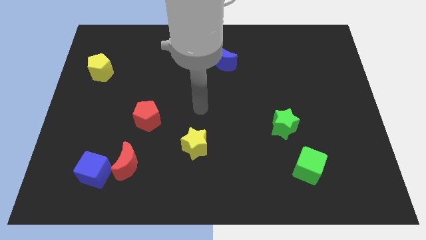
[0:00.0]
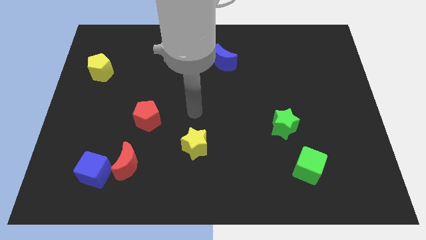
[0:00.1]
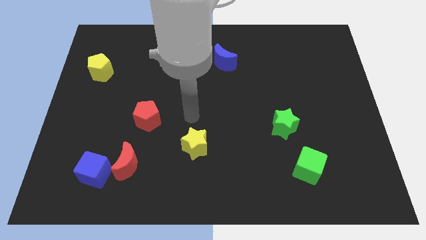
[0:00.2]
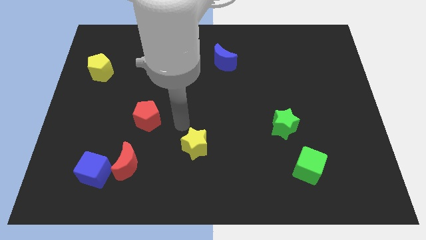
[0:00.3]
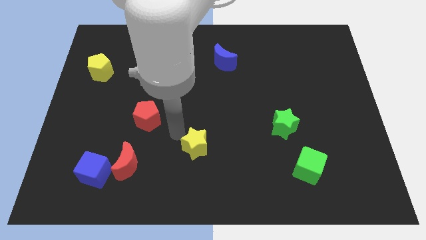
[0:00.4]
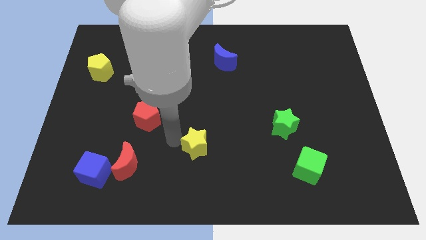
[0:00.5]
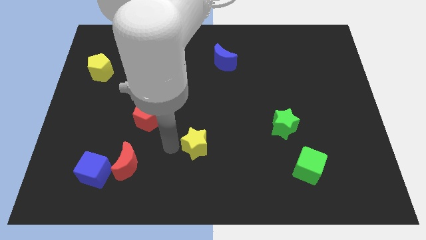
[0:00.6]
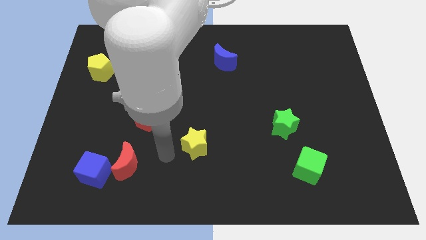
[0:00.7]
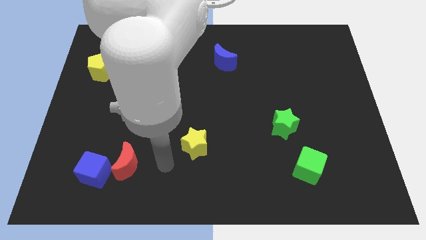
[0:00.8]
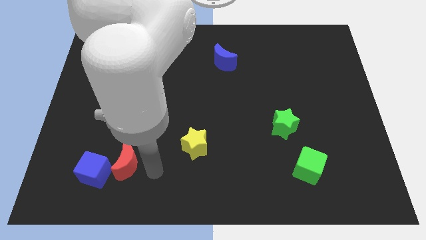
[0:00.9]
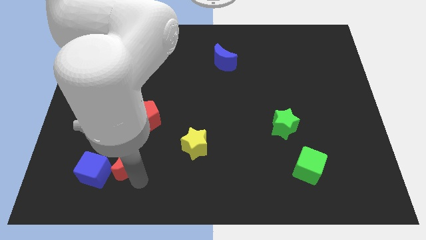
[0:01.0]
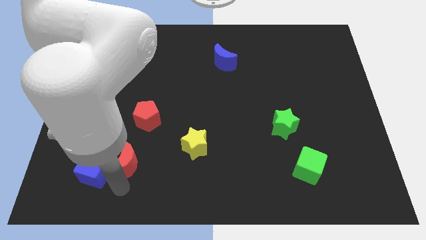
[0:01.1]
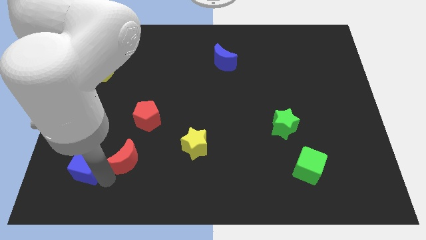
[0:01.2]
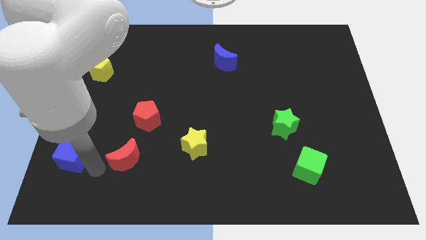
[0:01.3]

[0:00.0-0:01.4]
separate the red moon from the blue cube

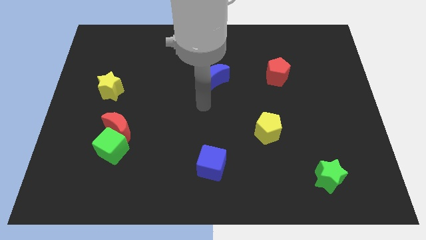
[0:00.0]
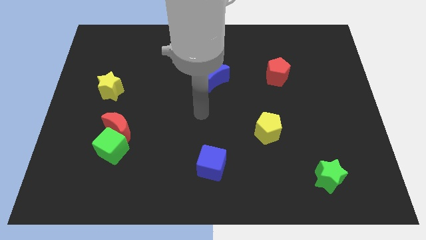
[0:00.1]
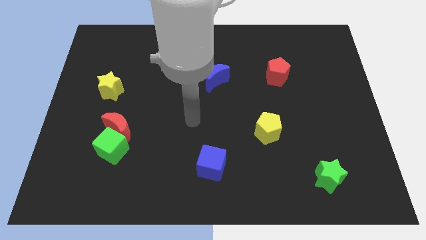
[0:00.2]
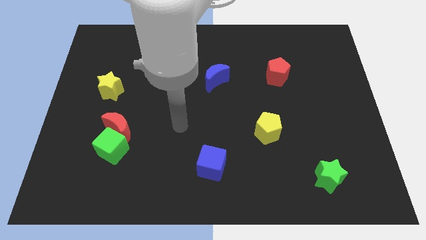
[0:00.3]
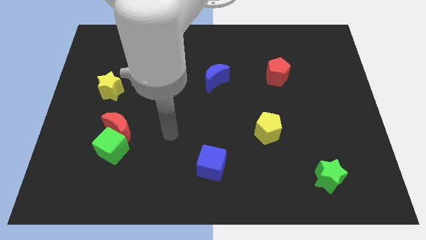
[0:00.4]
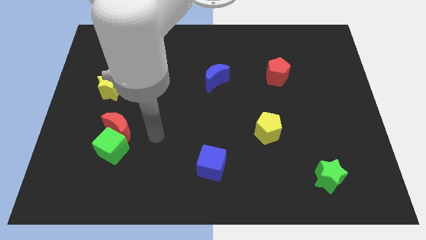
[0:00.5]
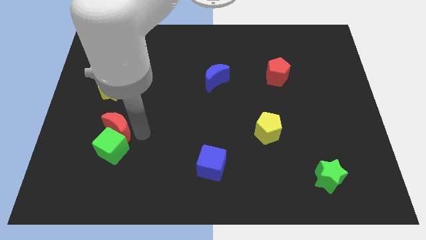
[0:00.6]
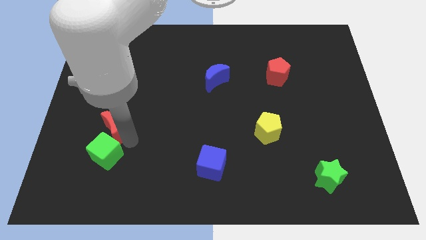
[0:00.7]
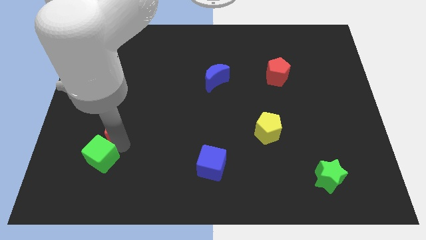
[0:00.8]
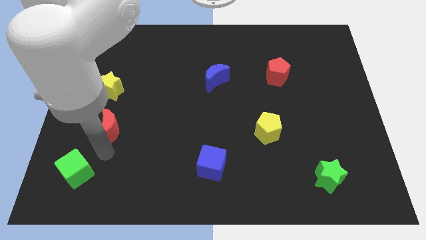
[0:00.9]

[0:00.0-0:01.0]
separate the red moon from the green cube

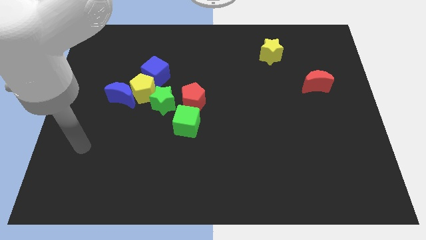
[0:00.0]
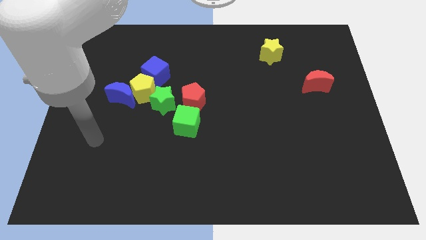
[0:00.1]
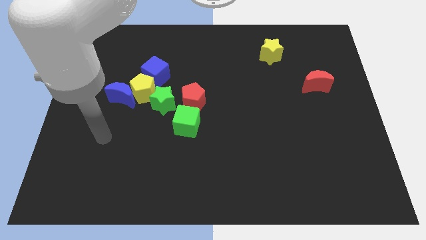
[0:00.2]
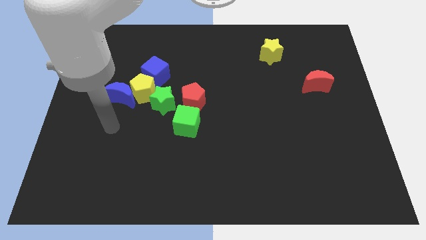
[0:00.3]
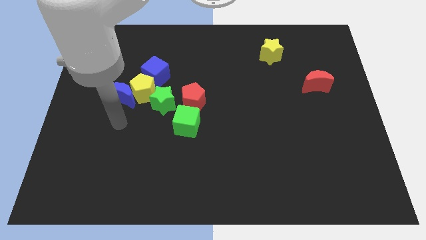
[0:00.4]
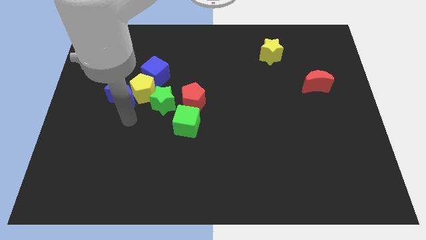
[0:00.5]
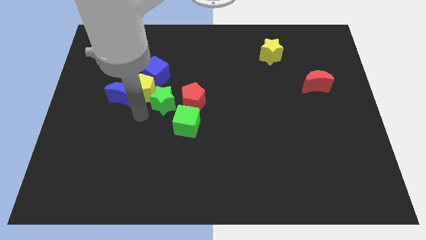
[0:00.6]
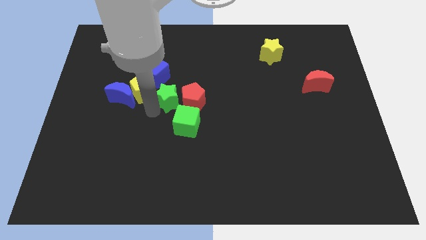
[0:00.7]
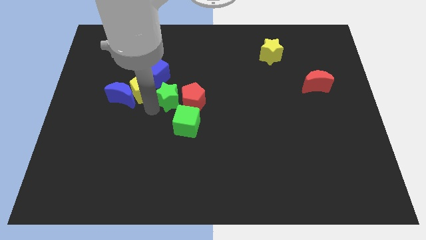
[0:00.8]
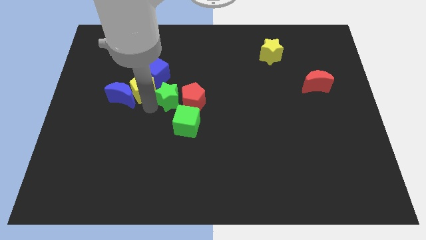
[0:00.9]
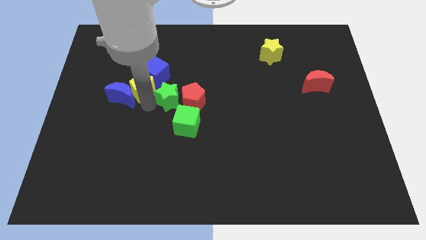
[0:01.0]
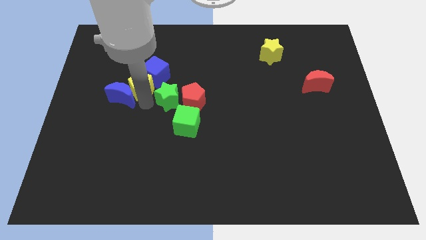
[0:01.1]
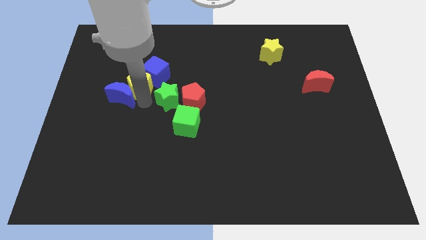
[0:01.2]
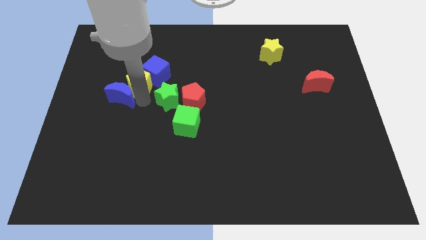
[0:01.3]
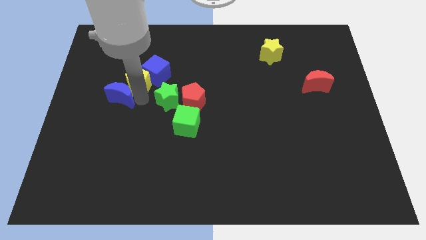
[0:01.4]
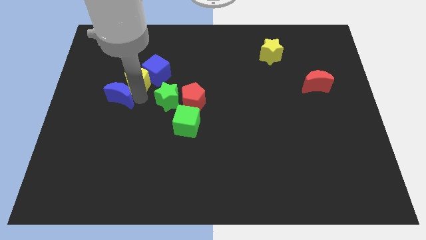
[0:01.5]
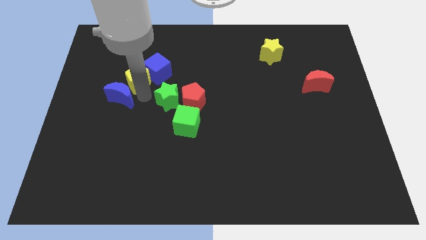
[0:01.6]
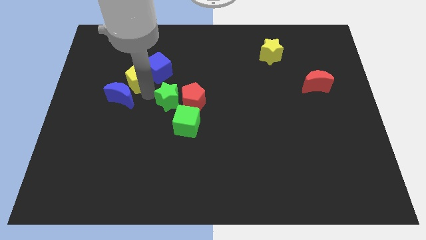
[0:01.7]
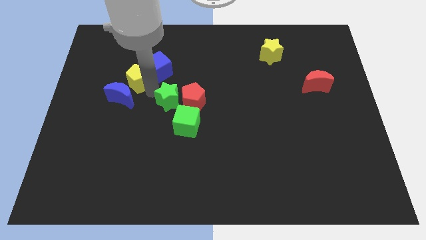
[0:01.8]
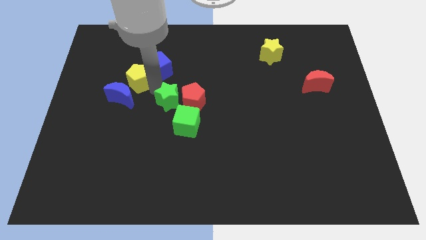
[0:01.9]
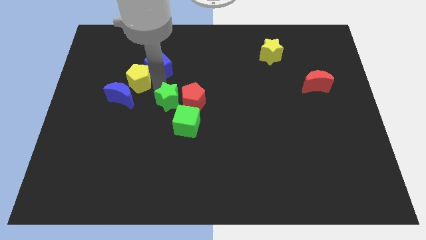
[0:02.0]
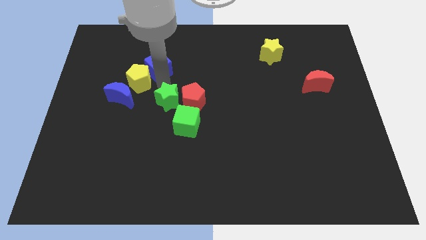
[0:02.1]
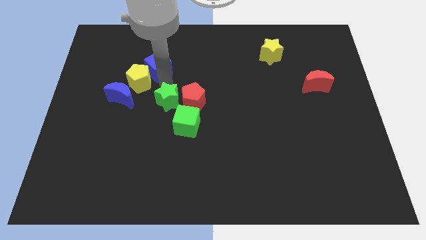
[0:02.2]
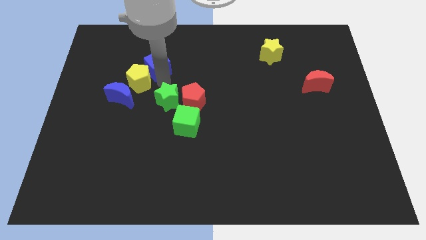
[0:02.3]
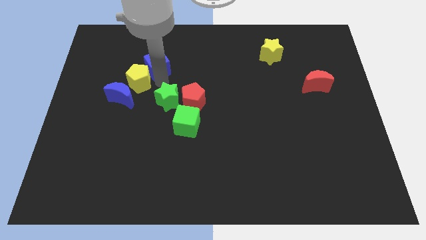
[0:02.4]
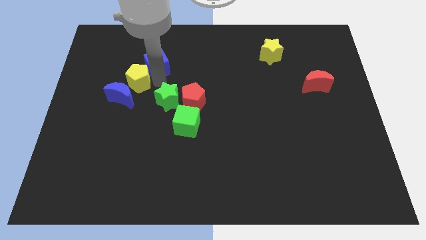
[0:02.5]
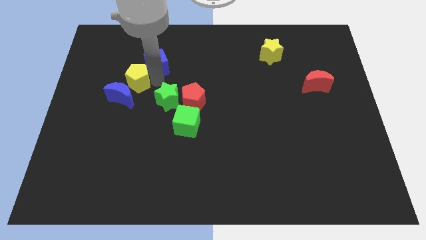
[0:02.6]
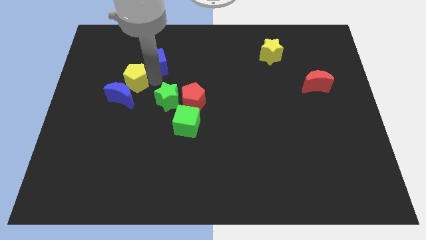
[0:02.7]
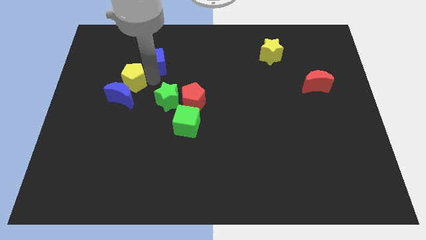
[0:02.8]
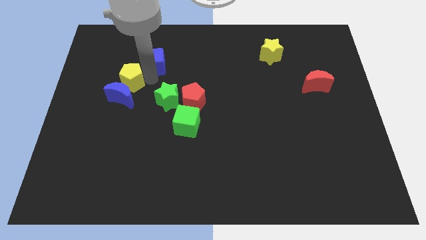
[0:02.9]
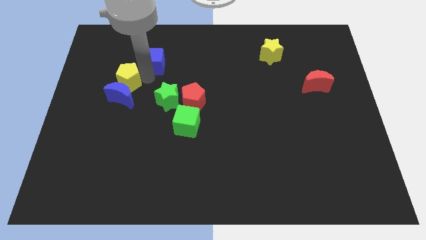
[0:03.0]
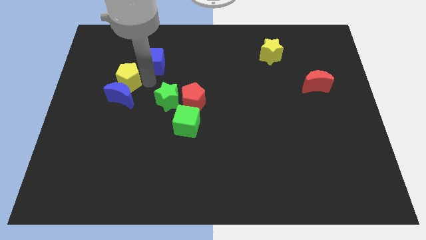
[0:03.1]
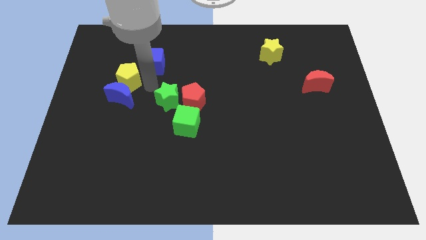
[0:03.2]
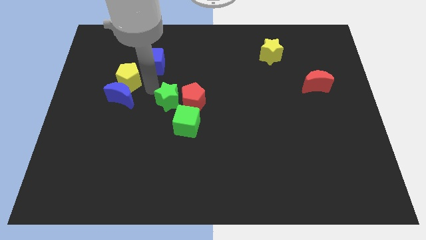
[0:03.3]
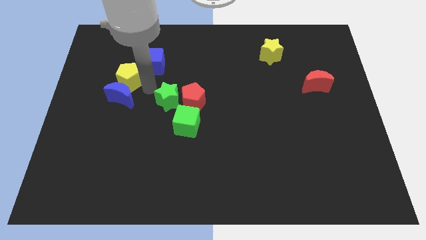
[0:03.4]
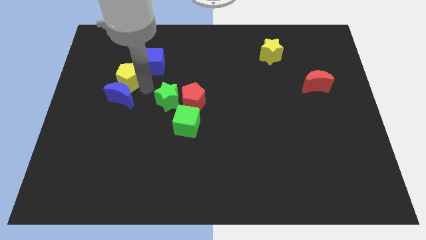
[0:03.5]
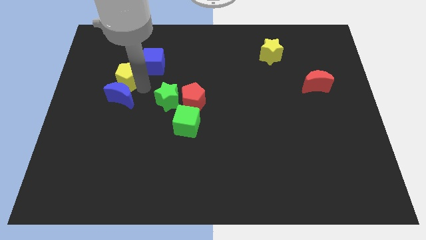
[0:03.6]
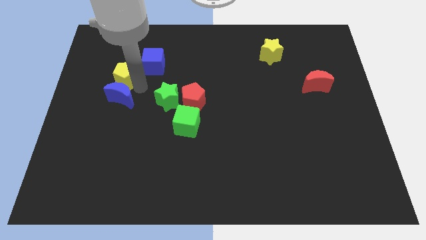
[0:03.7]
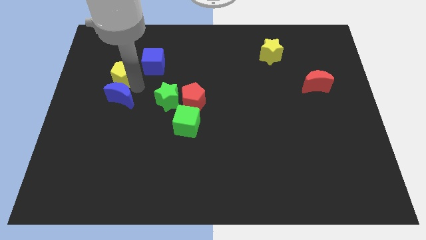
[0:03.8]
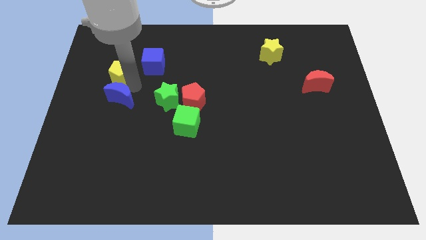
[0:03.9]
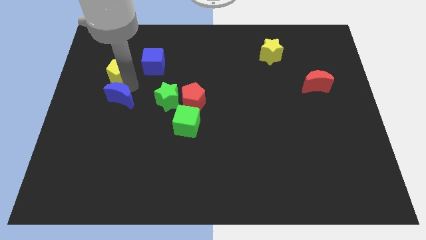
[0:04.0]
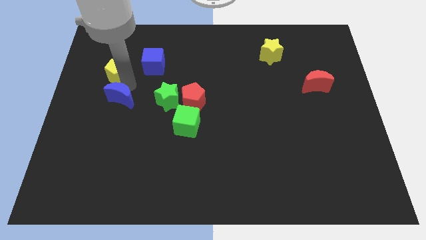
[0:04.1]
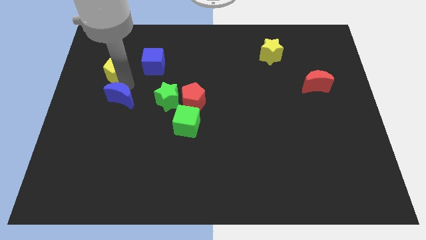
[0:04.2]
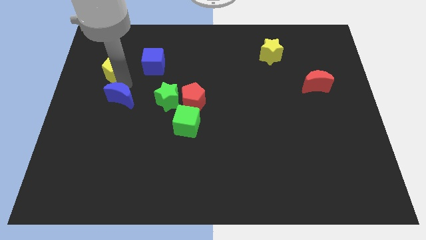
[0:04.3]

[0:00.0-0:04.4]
move the yellow pentagon away from the clump

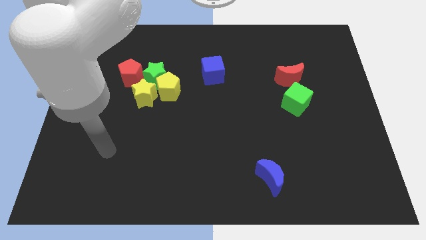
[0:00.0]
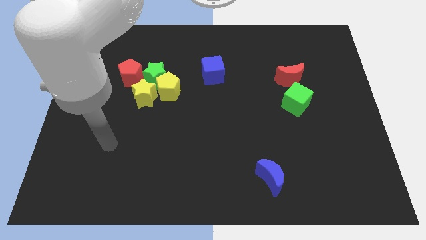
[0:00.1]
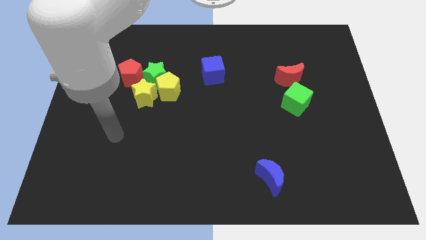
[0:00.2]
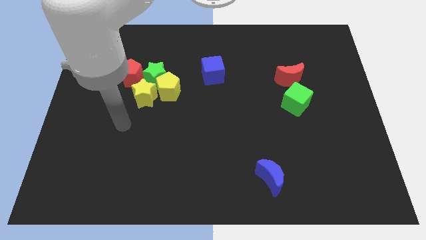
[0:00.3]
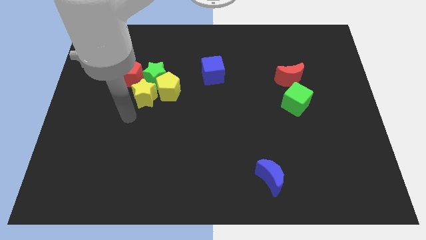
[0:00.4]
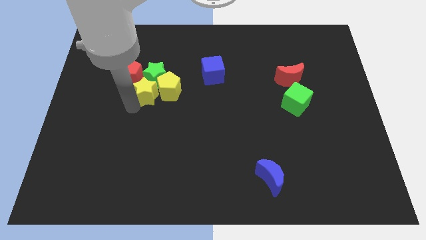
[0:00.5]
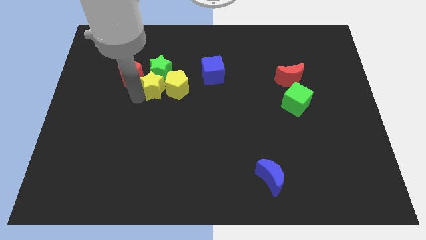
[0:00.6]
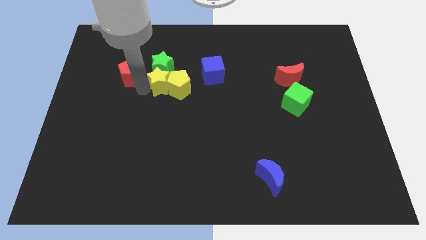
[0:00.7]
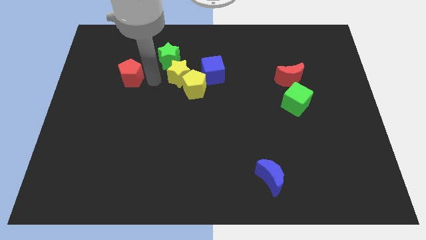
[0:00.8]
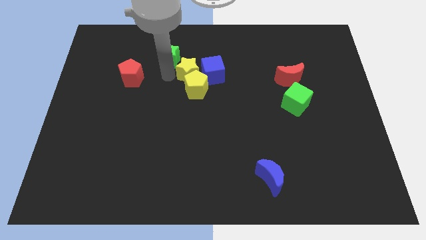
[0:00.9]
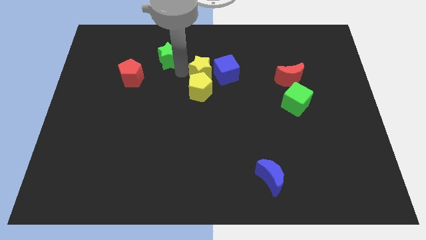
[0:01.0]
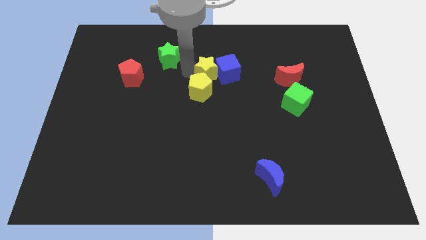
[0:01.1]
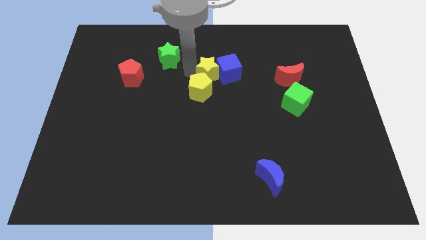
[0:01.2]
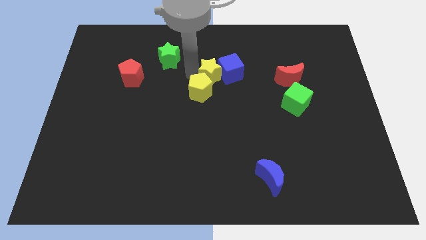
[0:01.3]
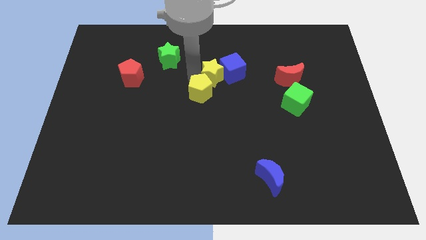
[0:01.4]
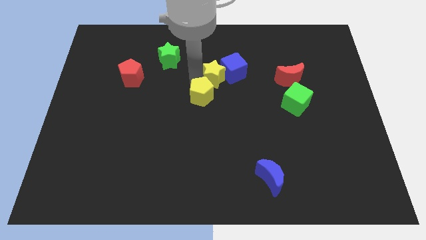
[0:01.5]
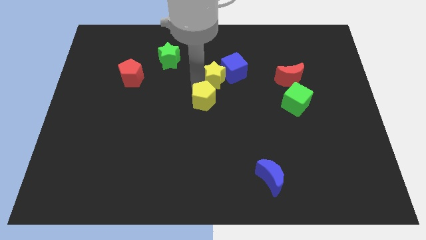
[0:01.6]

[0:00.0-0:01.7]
move the yellow pentagon away from the green star and yellow star

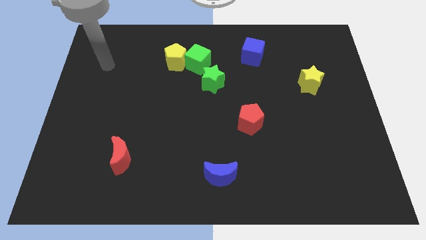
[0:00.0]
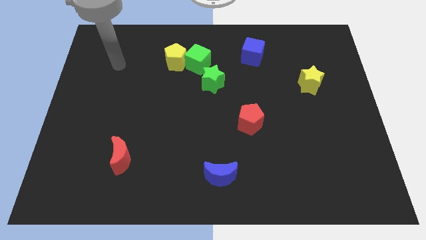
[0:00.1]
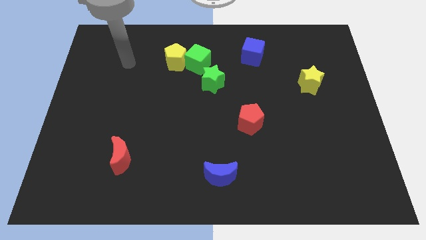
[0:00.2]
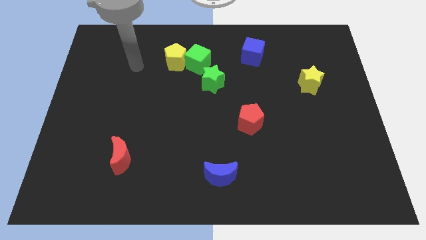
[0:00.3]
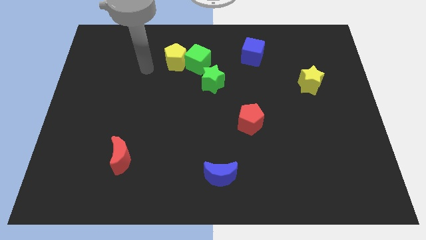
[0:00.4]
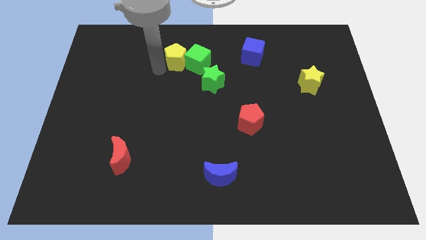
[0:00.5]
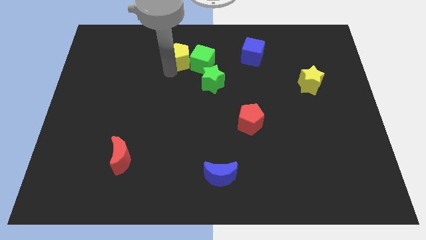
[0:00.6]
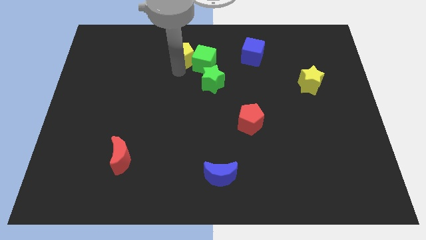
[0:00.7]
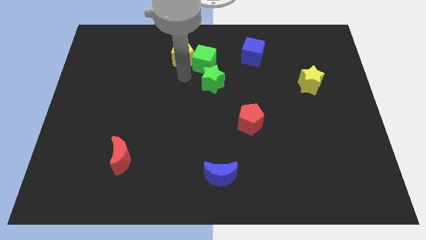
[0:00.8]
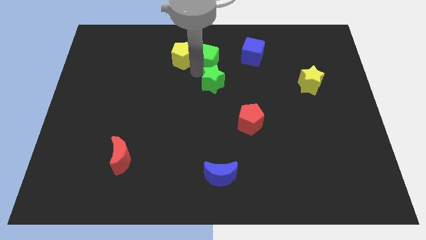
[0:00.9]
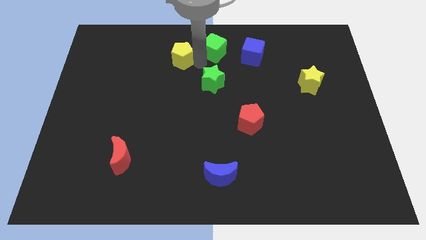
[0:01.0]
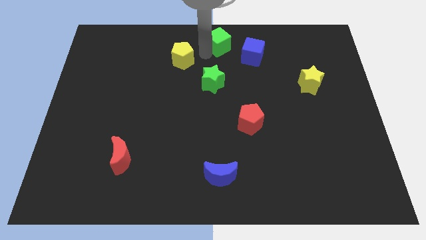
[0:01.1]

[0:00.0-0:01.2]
move the yellow pentagon away from the green cube
